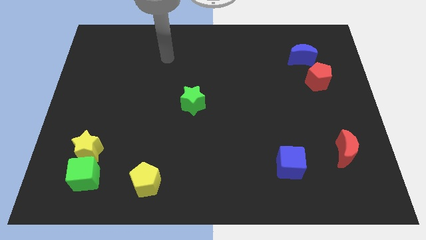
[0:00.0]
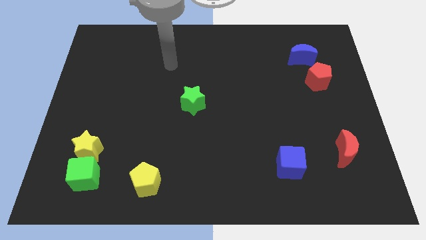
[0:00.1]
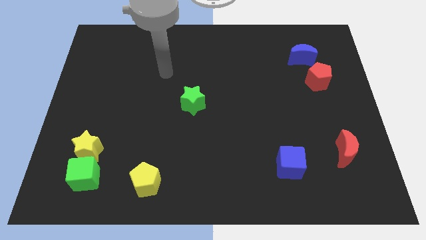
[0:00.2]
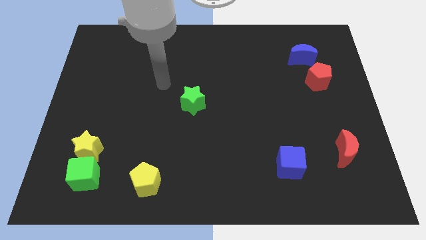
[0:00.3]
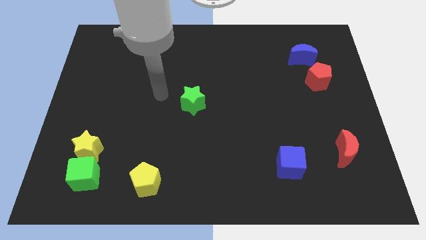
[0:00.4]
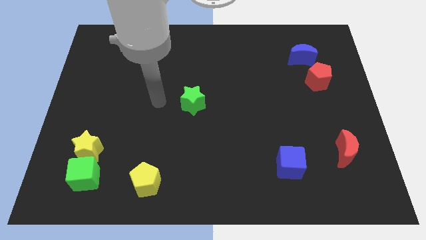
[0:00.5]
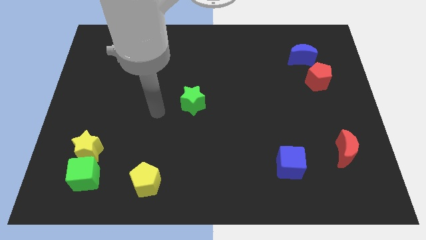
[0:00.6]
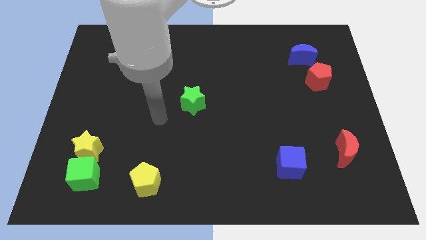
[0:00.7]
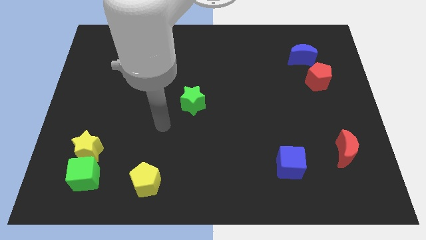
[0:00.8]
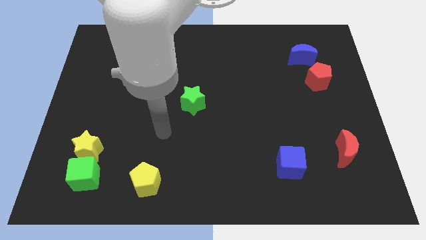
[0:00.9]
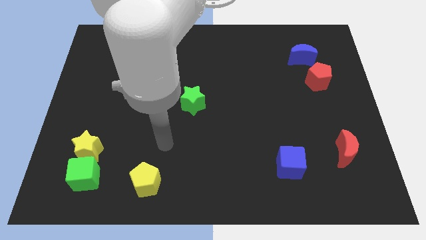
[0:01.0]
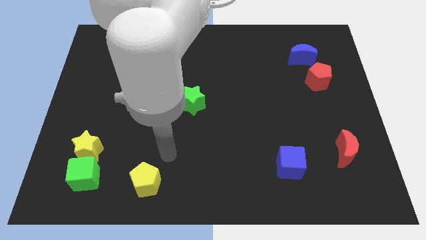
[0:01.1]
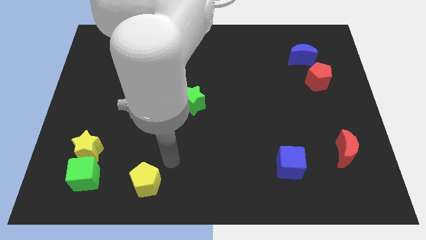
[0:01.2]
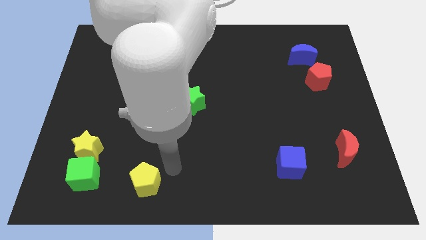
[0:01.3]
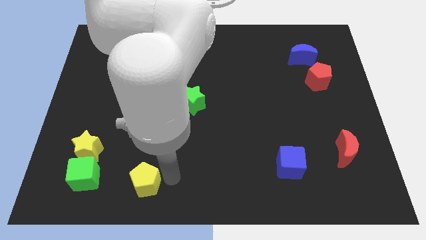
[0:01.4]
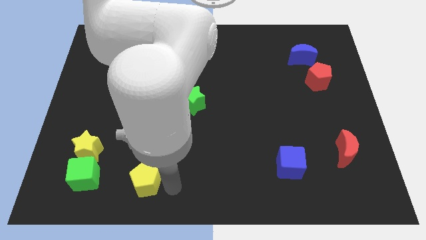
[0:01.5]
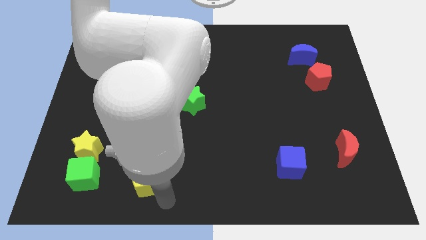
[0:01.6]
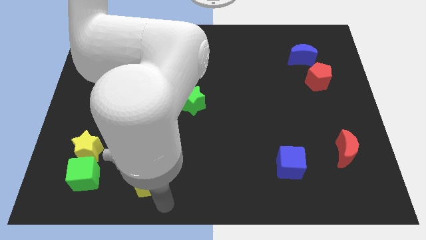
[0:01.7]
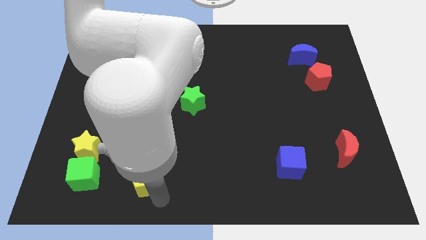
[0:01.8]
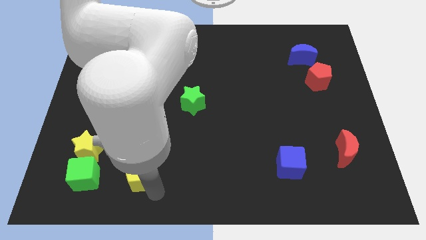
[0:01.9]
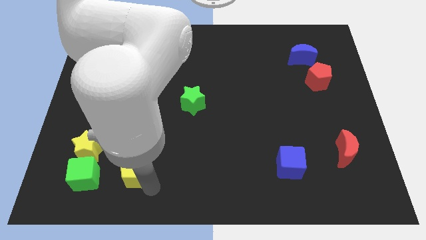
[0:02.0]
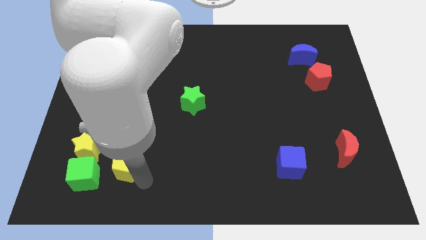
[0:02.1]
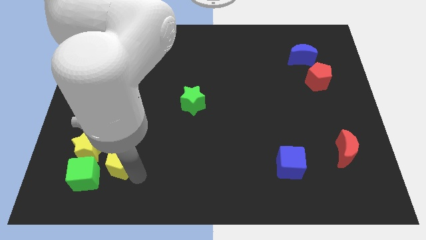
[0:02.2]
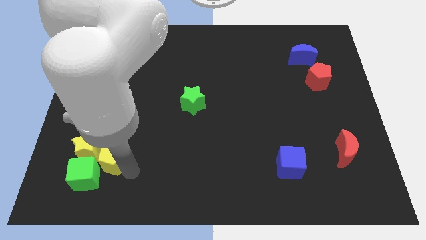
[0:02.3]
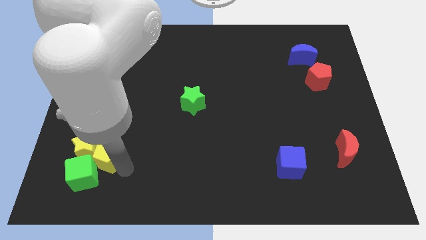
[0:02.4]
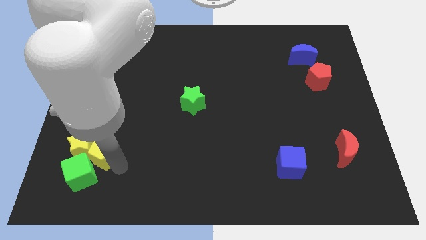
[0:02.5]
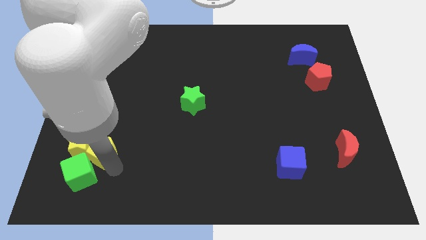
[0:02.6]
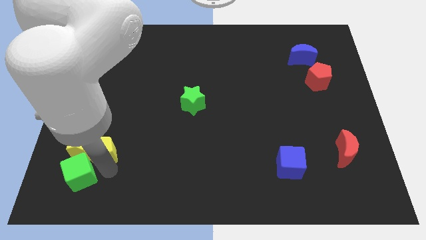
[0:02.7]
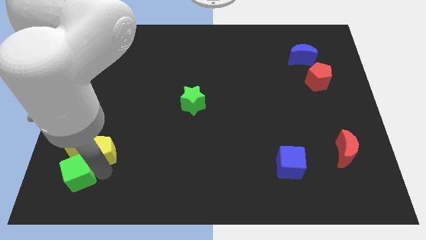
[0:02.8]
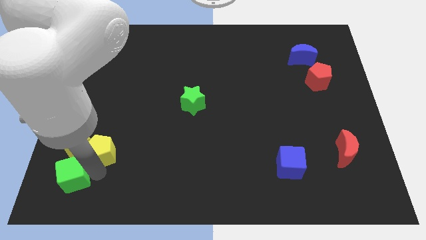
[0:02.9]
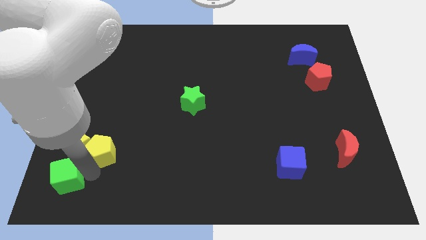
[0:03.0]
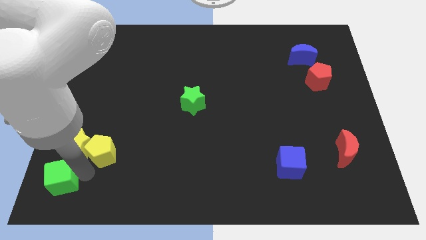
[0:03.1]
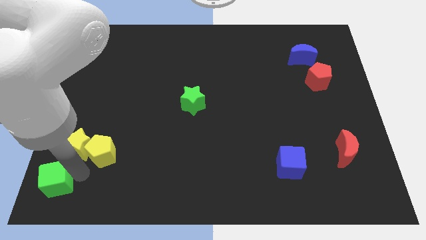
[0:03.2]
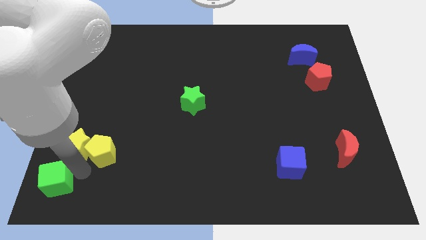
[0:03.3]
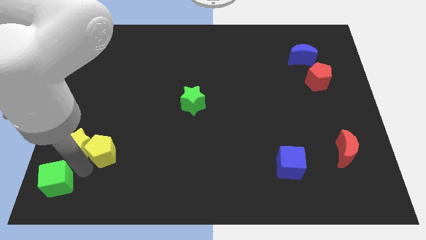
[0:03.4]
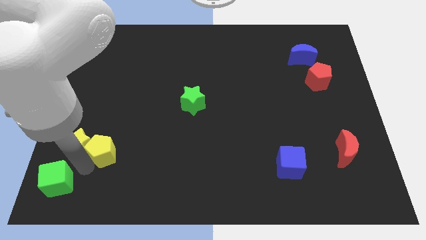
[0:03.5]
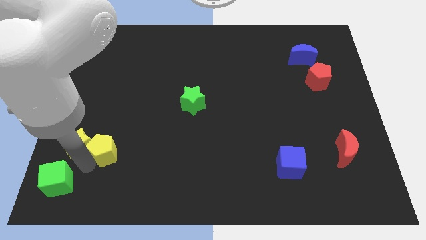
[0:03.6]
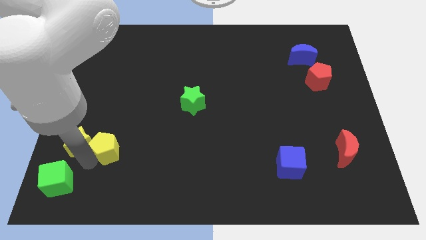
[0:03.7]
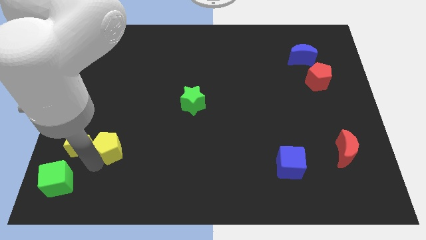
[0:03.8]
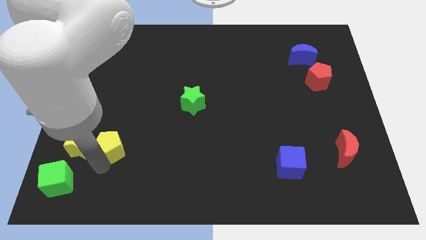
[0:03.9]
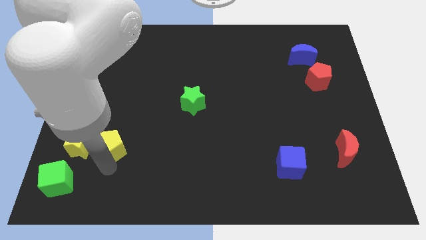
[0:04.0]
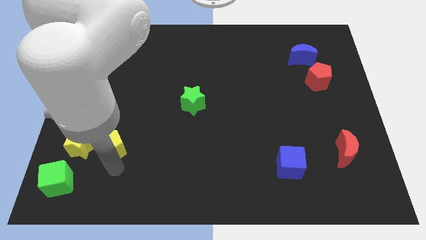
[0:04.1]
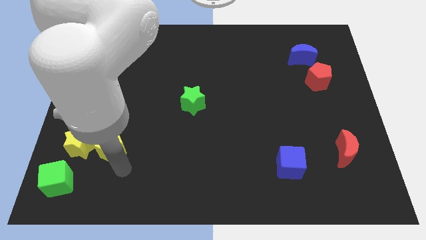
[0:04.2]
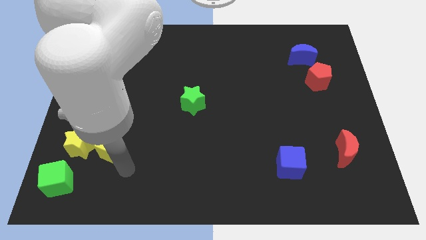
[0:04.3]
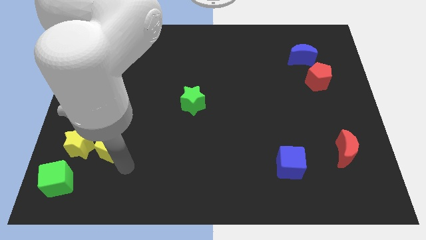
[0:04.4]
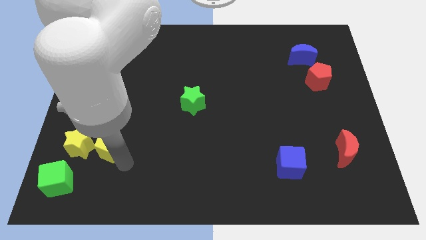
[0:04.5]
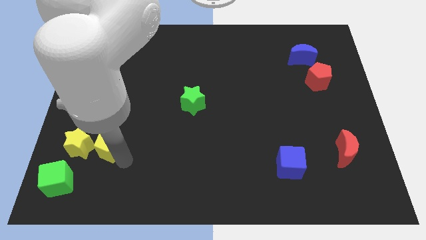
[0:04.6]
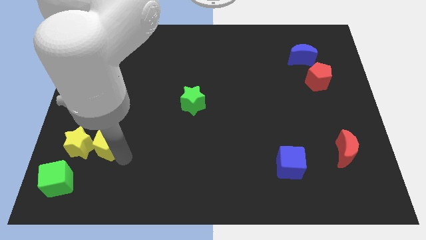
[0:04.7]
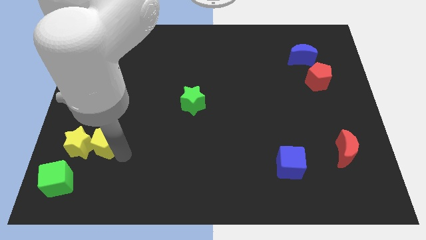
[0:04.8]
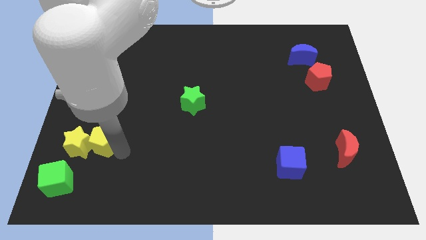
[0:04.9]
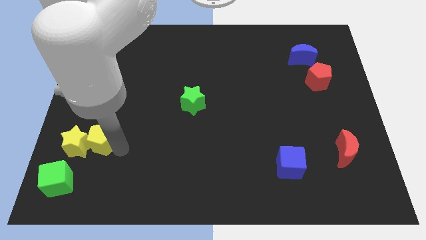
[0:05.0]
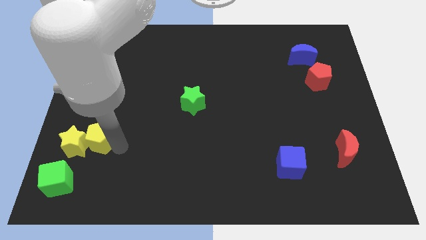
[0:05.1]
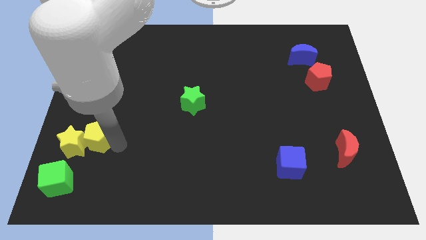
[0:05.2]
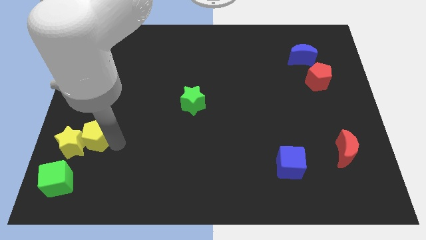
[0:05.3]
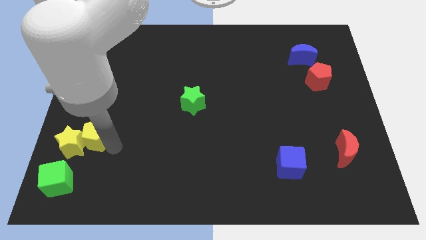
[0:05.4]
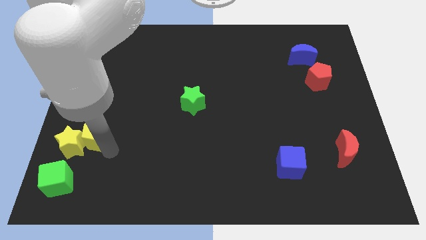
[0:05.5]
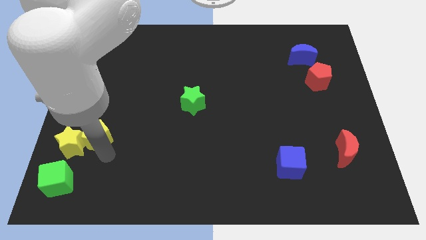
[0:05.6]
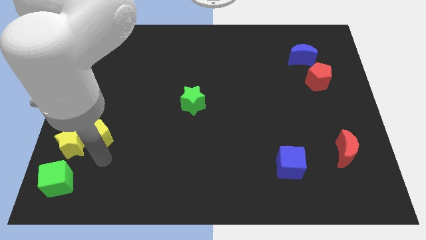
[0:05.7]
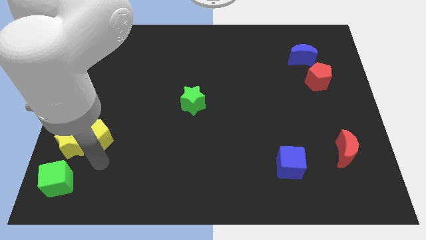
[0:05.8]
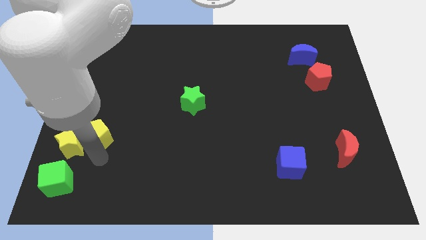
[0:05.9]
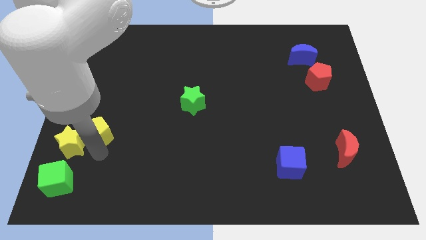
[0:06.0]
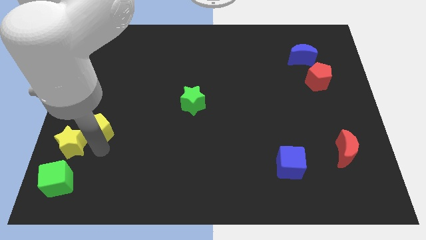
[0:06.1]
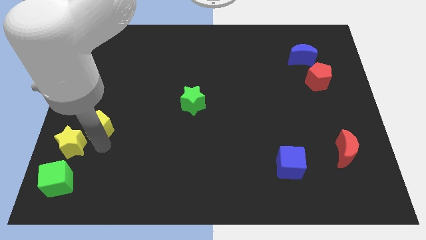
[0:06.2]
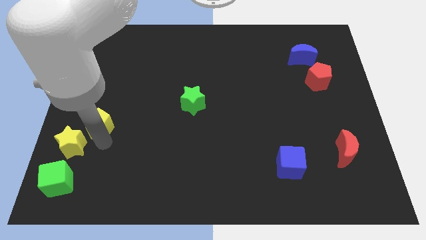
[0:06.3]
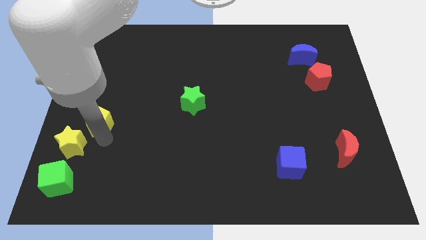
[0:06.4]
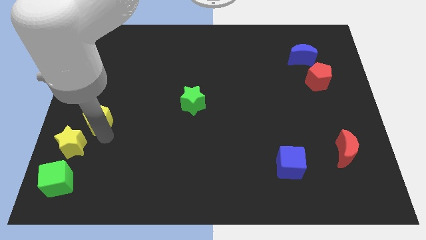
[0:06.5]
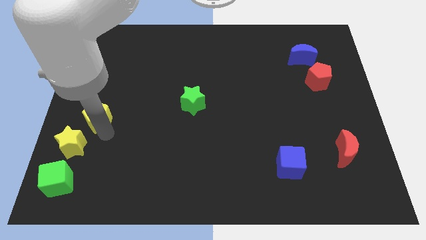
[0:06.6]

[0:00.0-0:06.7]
put the yellow pentagon to the left side of the board
